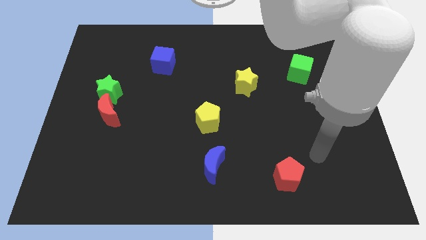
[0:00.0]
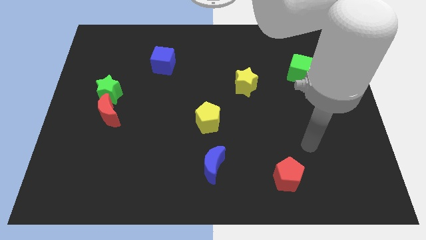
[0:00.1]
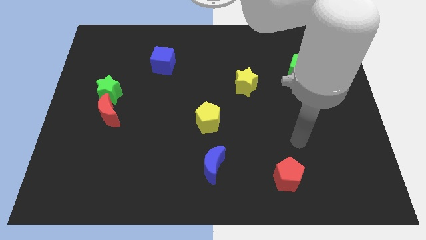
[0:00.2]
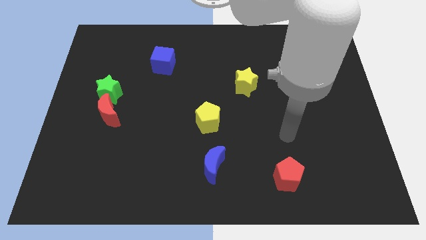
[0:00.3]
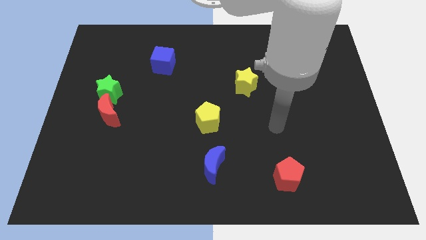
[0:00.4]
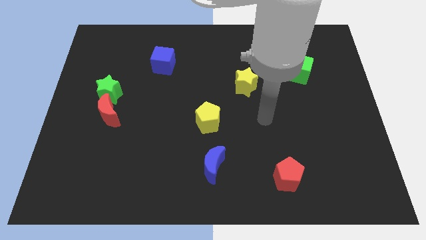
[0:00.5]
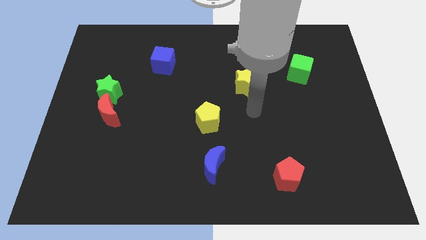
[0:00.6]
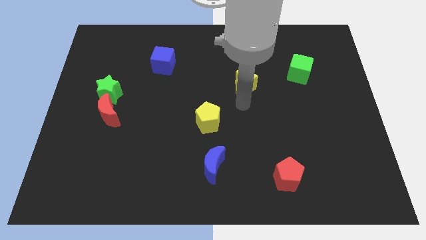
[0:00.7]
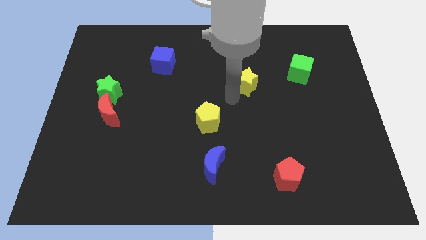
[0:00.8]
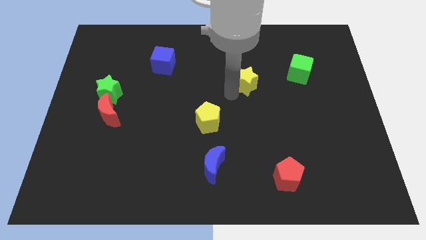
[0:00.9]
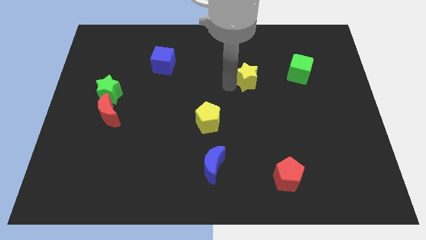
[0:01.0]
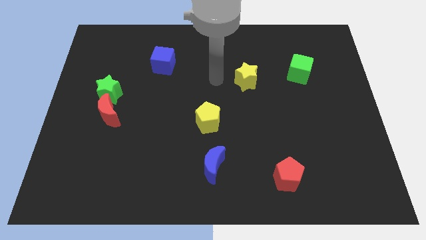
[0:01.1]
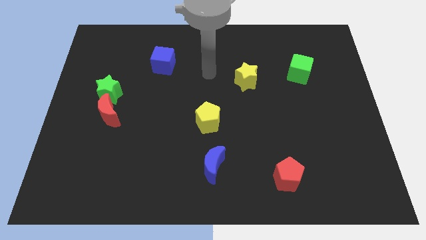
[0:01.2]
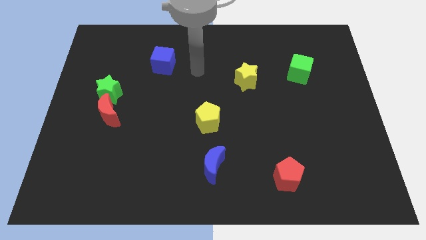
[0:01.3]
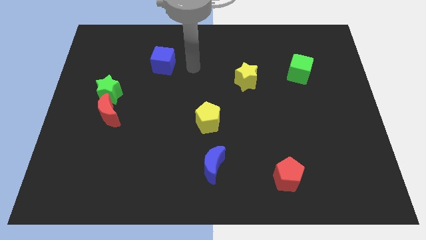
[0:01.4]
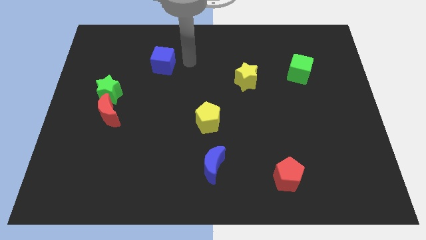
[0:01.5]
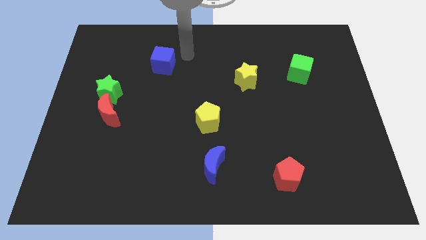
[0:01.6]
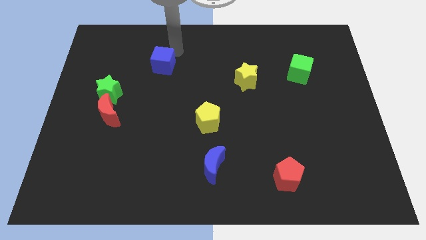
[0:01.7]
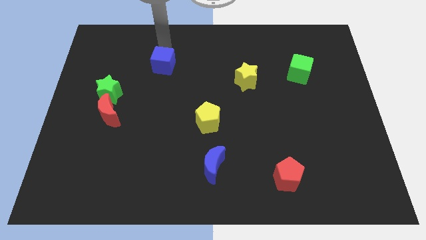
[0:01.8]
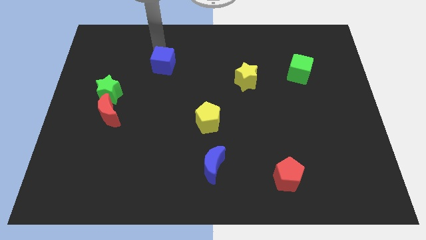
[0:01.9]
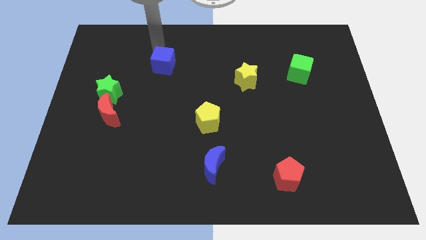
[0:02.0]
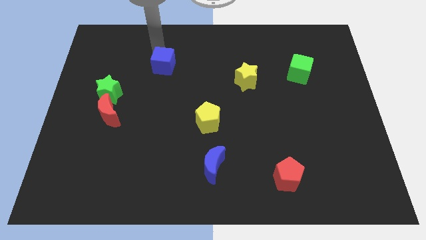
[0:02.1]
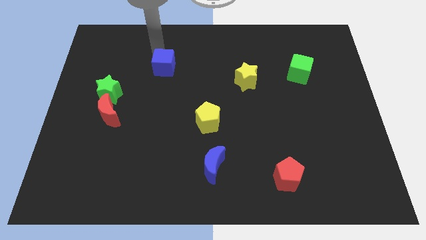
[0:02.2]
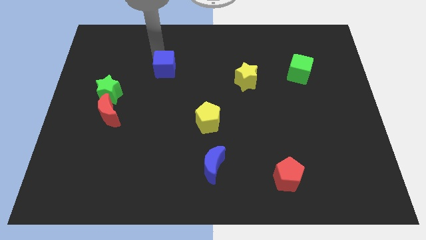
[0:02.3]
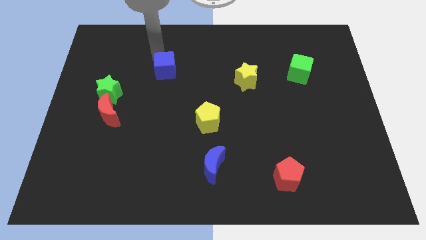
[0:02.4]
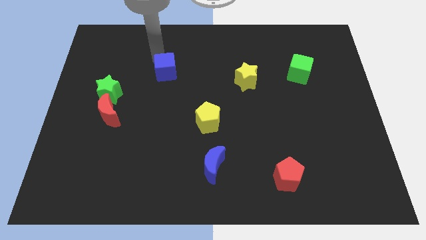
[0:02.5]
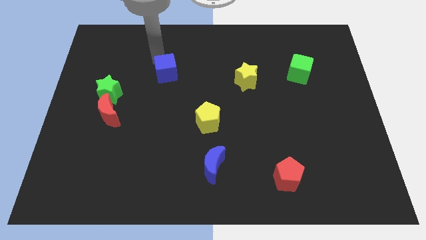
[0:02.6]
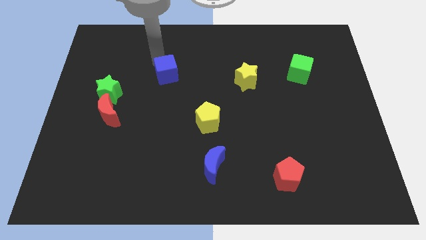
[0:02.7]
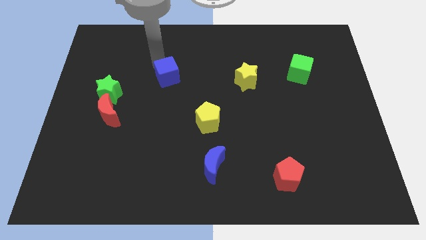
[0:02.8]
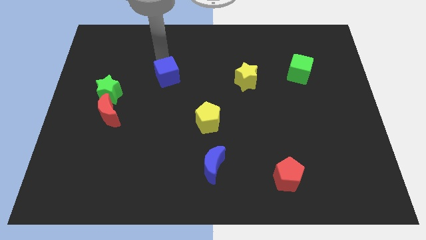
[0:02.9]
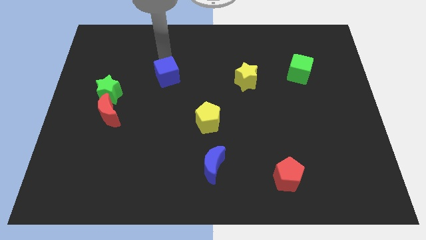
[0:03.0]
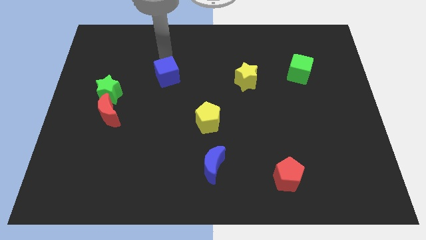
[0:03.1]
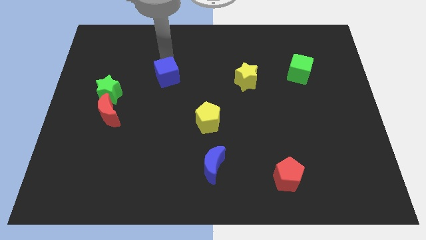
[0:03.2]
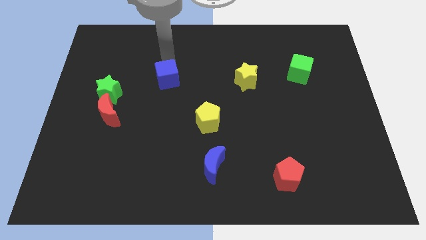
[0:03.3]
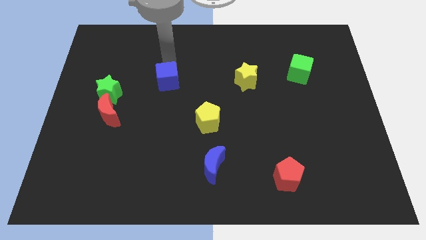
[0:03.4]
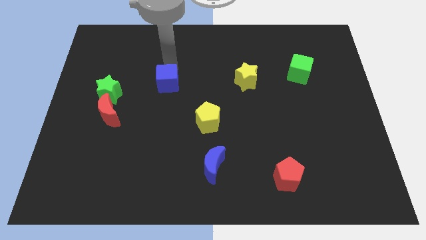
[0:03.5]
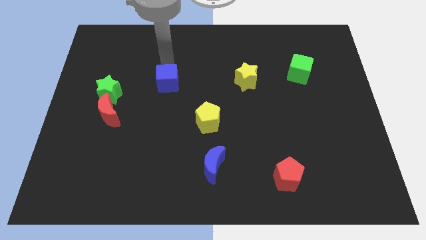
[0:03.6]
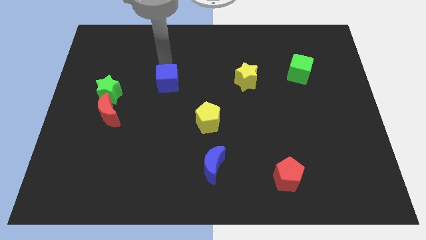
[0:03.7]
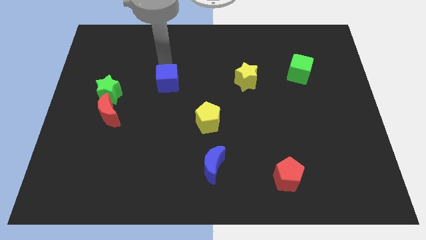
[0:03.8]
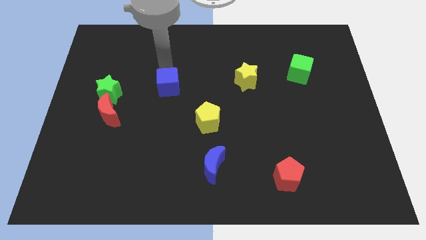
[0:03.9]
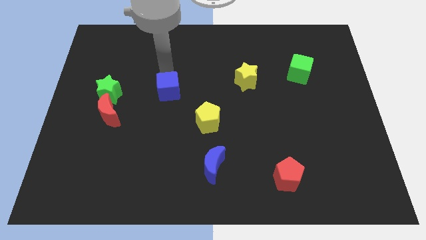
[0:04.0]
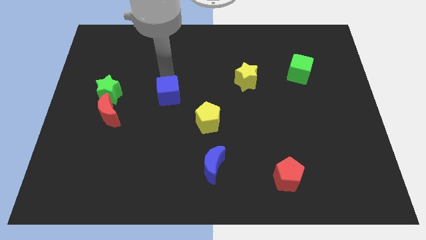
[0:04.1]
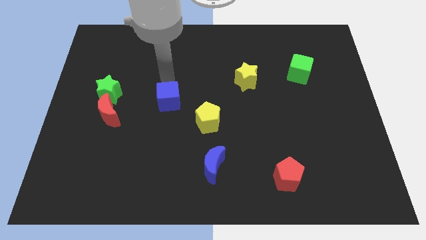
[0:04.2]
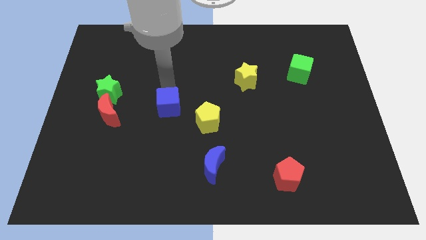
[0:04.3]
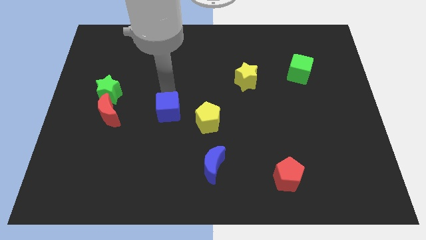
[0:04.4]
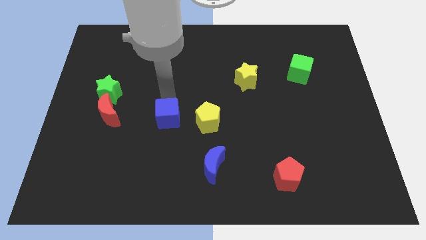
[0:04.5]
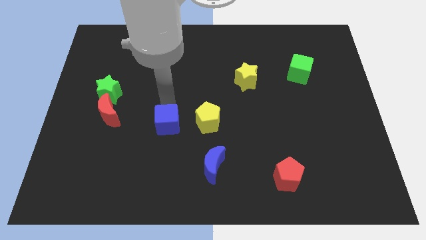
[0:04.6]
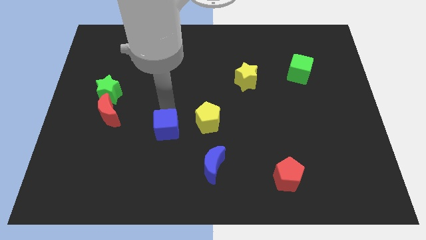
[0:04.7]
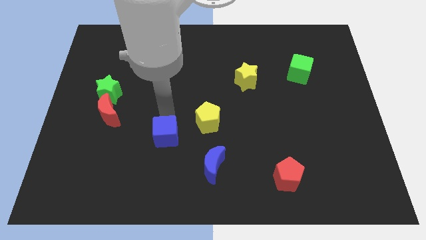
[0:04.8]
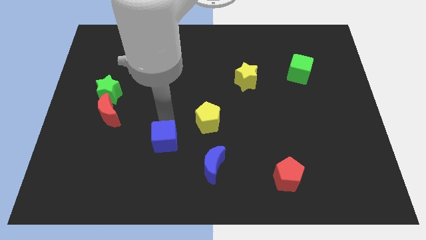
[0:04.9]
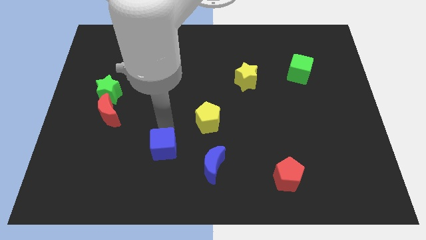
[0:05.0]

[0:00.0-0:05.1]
put the blue cube just left of the blue moon
